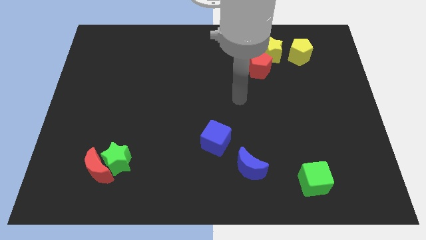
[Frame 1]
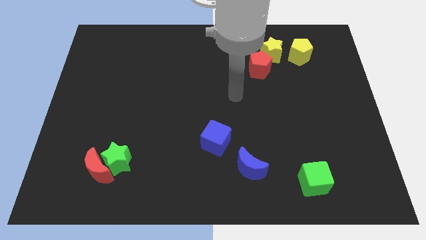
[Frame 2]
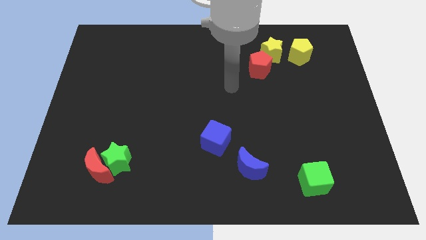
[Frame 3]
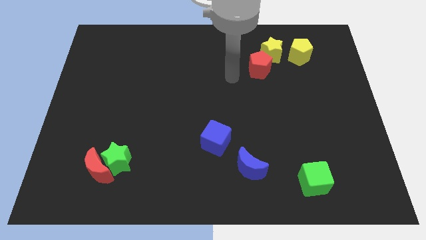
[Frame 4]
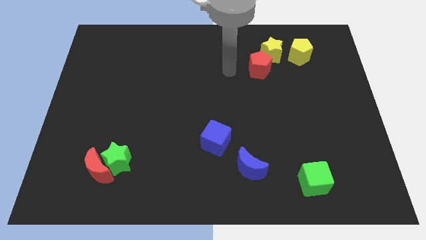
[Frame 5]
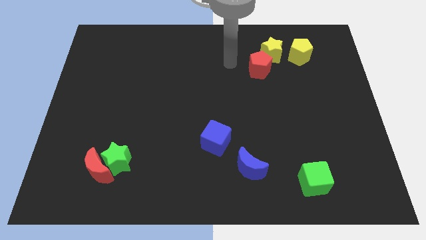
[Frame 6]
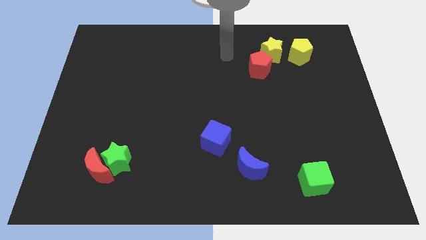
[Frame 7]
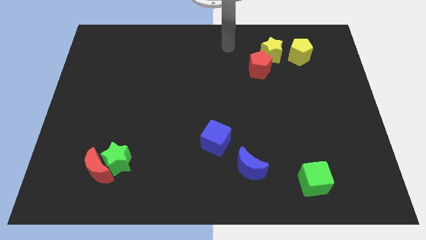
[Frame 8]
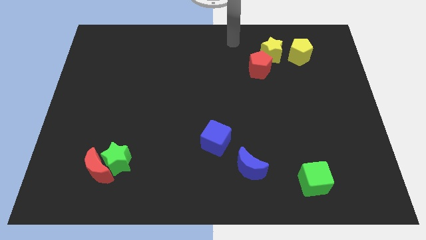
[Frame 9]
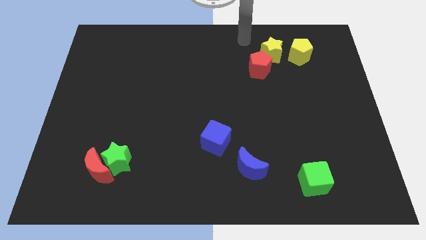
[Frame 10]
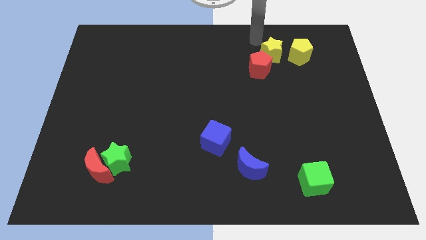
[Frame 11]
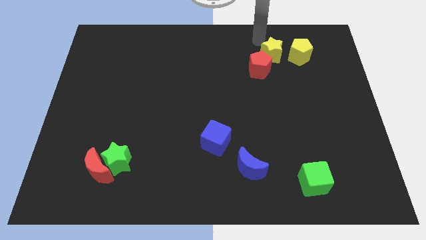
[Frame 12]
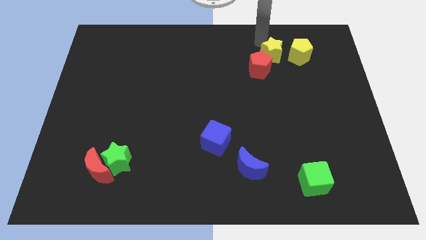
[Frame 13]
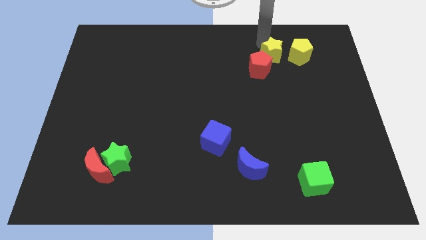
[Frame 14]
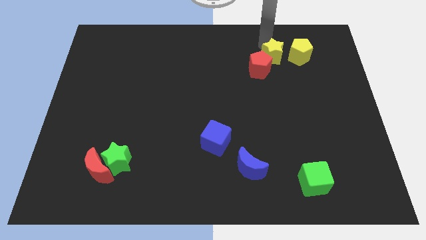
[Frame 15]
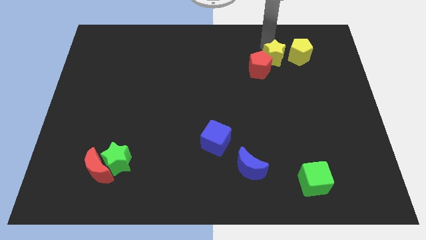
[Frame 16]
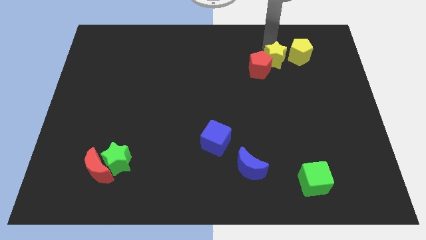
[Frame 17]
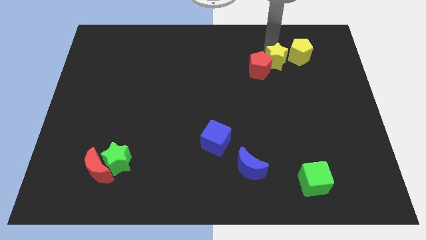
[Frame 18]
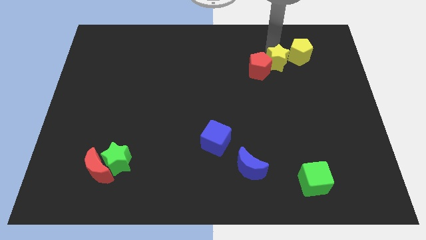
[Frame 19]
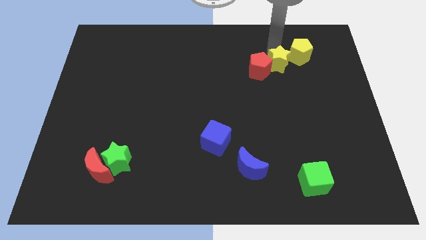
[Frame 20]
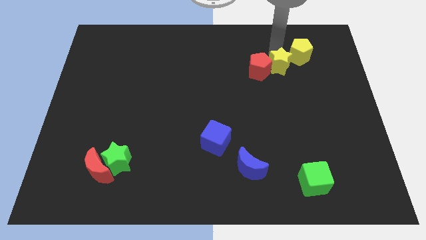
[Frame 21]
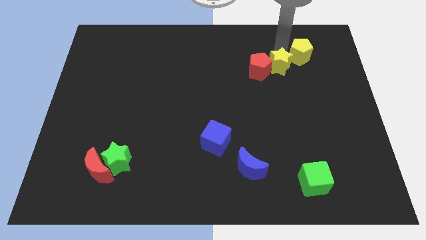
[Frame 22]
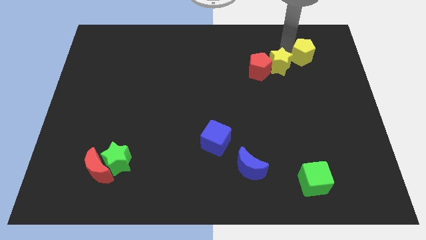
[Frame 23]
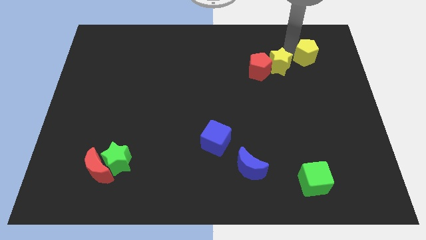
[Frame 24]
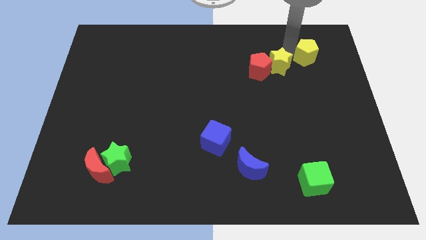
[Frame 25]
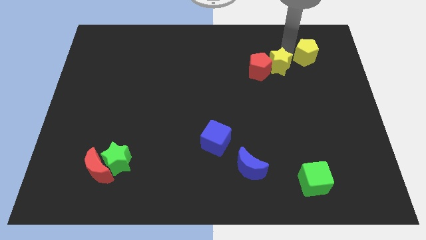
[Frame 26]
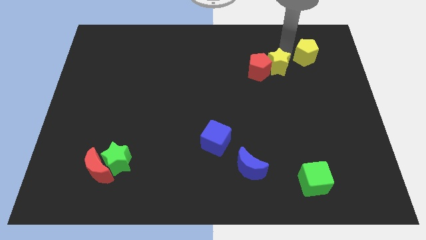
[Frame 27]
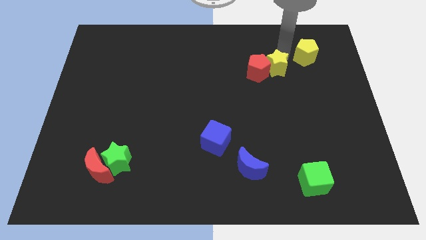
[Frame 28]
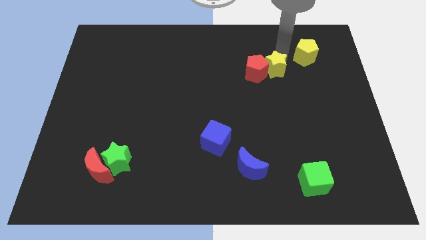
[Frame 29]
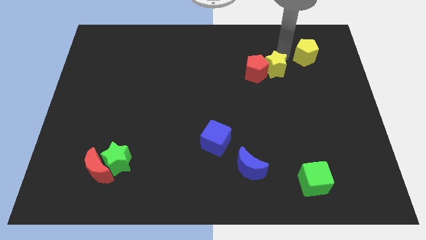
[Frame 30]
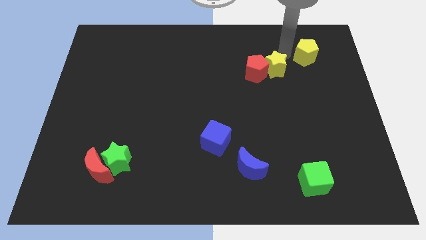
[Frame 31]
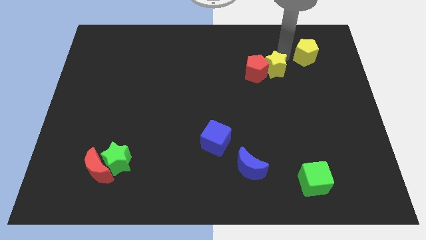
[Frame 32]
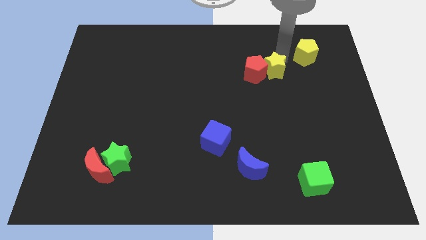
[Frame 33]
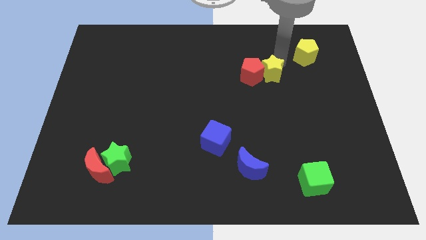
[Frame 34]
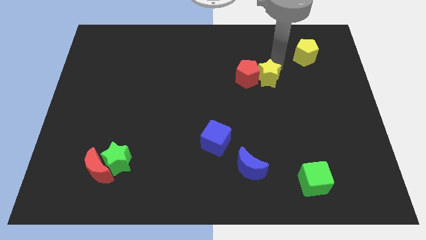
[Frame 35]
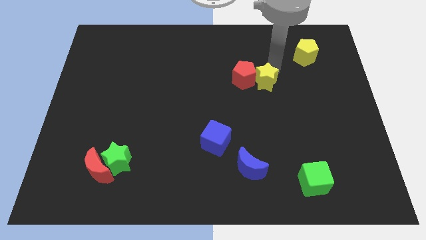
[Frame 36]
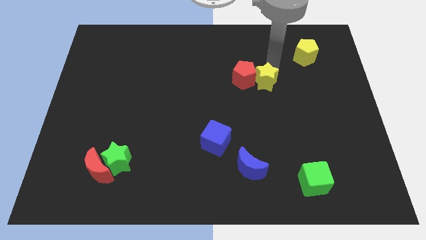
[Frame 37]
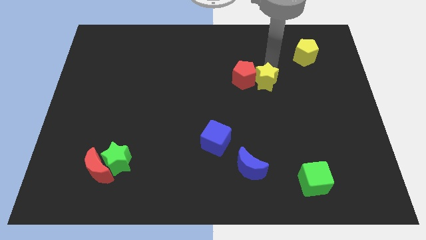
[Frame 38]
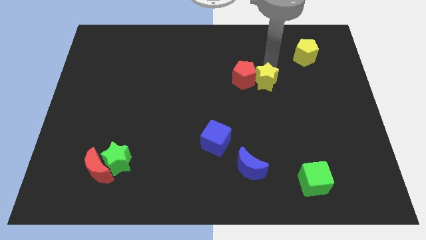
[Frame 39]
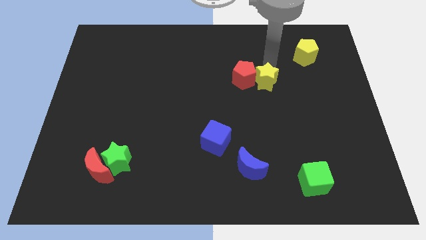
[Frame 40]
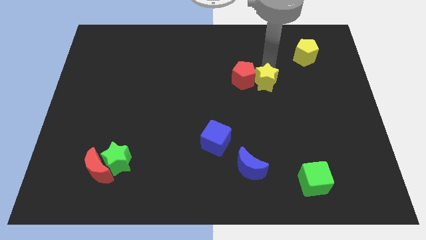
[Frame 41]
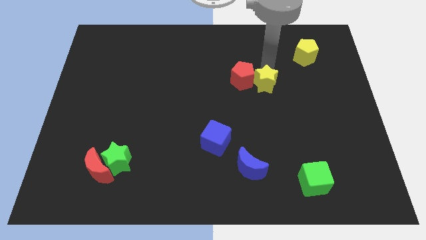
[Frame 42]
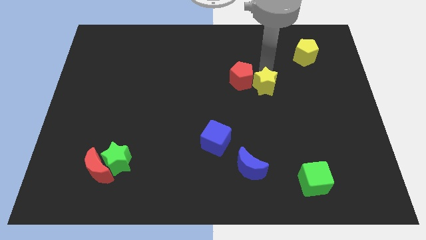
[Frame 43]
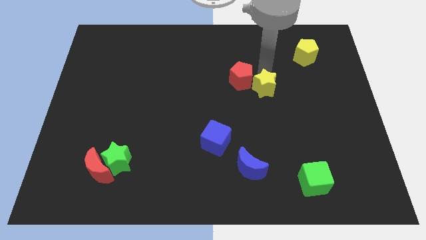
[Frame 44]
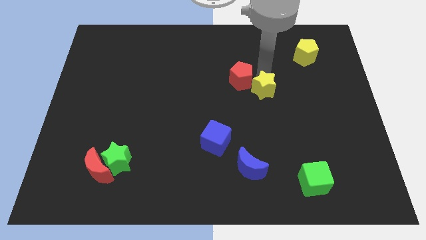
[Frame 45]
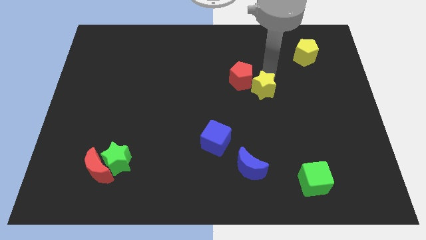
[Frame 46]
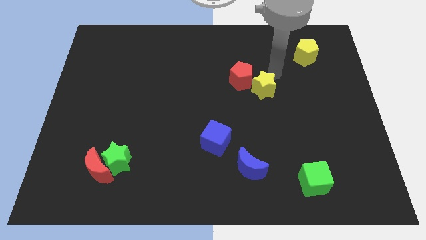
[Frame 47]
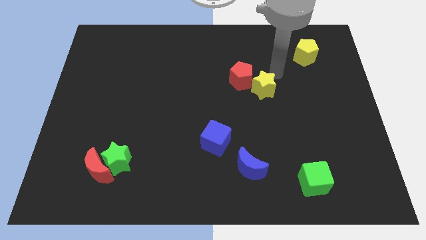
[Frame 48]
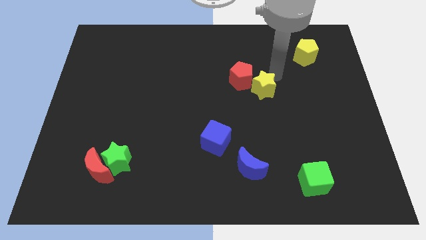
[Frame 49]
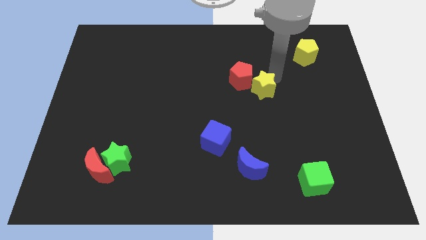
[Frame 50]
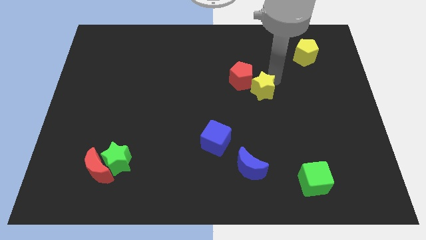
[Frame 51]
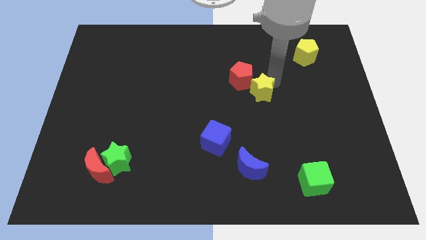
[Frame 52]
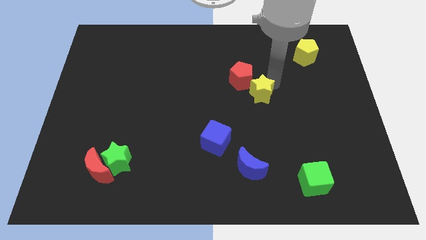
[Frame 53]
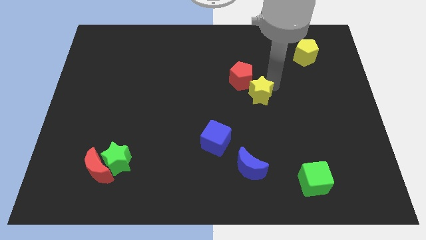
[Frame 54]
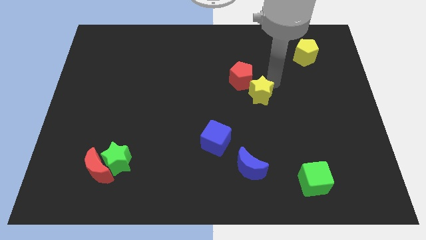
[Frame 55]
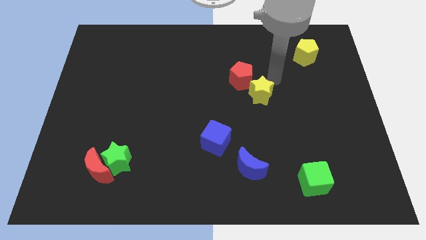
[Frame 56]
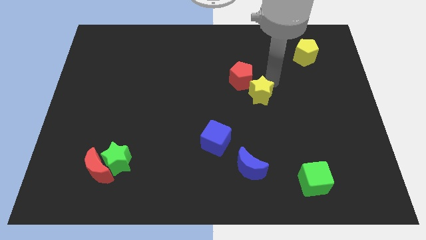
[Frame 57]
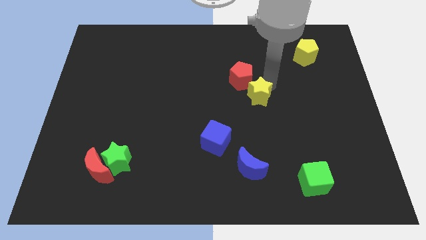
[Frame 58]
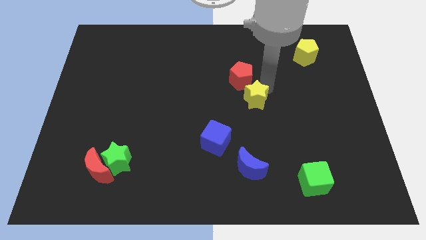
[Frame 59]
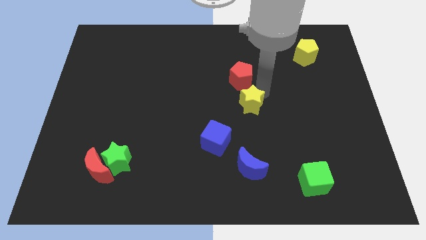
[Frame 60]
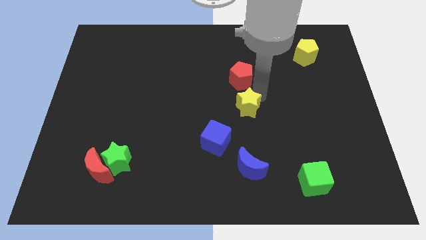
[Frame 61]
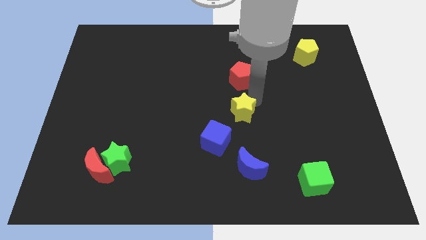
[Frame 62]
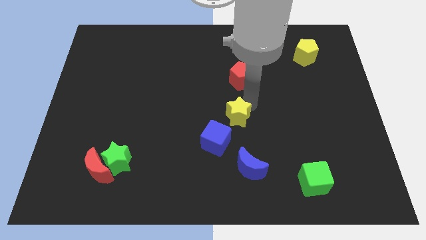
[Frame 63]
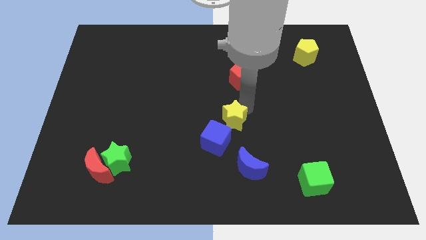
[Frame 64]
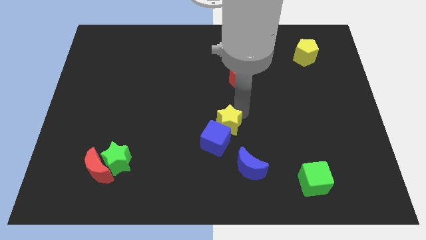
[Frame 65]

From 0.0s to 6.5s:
put the yellow star next to the blue cube

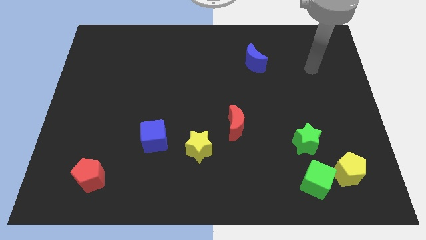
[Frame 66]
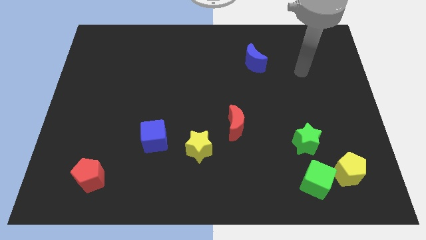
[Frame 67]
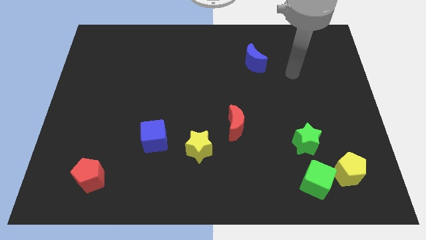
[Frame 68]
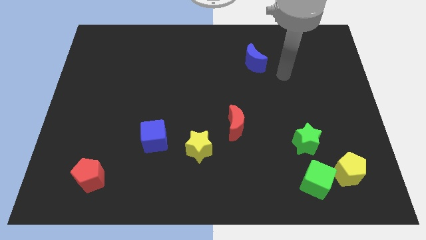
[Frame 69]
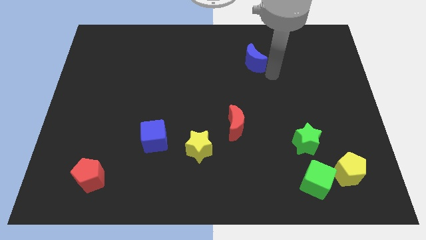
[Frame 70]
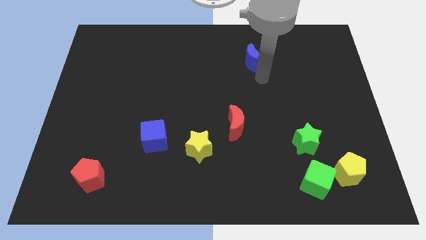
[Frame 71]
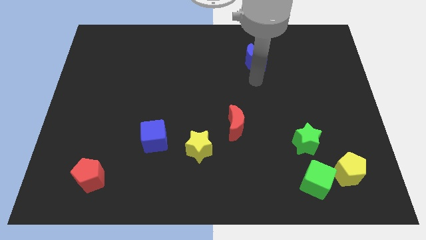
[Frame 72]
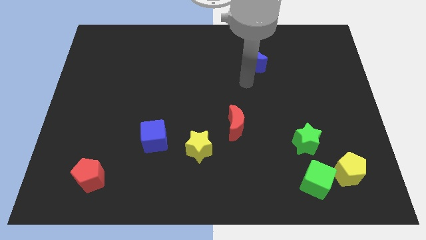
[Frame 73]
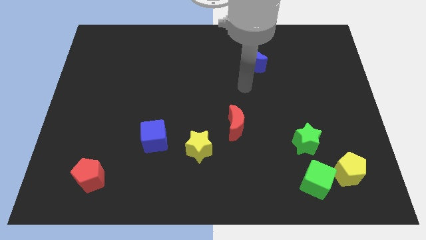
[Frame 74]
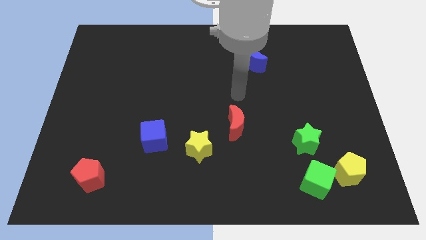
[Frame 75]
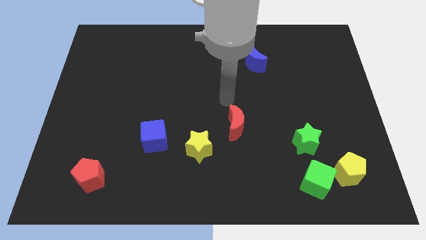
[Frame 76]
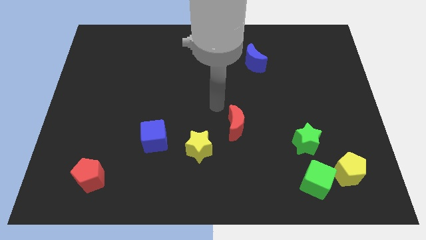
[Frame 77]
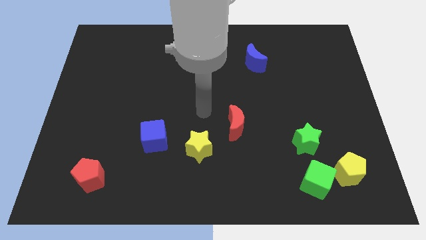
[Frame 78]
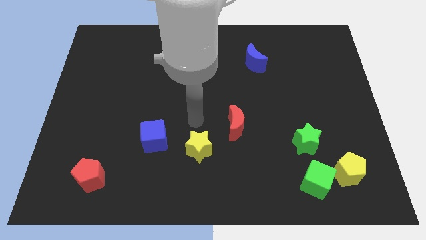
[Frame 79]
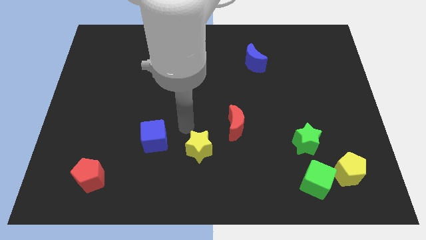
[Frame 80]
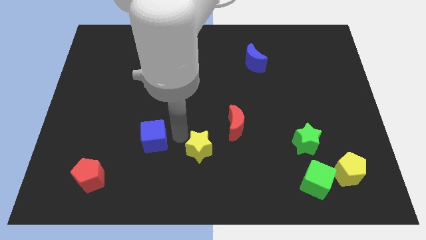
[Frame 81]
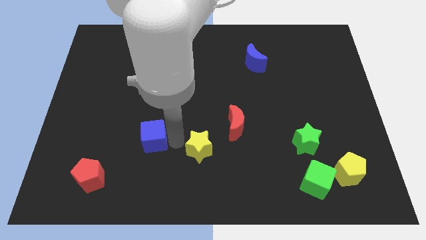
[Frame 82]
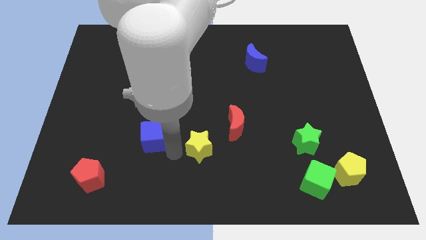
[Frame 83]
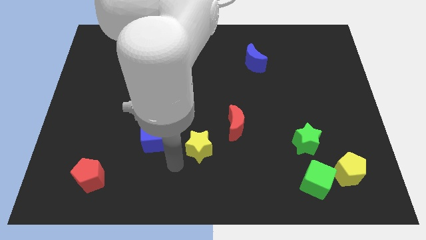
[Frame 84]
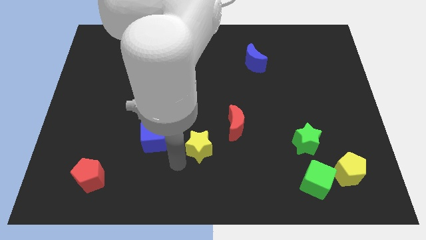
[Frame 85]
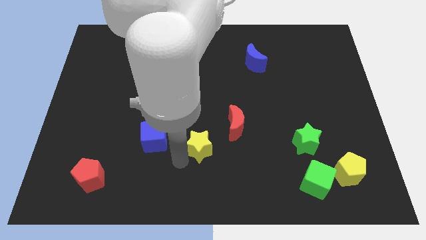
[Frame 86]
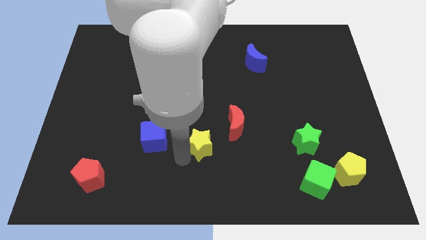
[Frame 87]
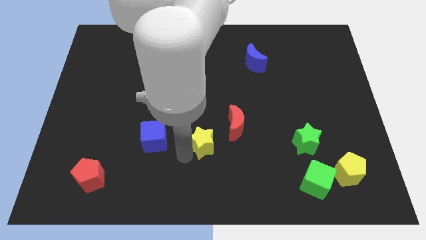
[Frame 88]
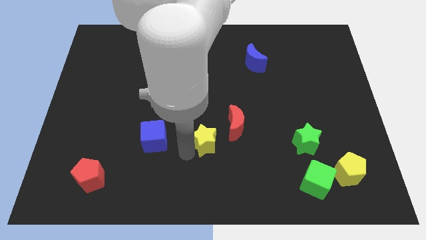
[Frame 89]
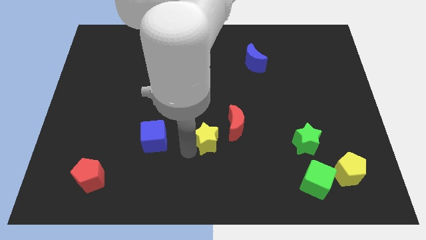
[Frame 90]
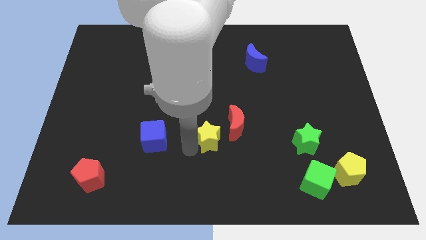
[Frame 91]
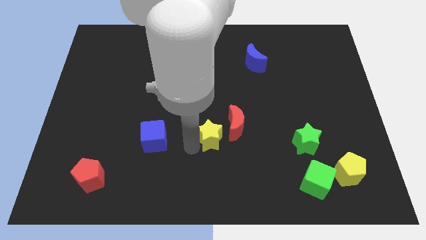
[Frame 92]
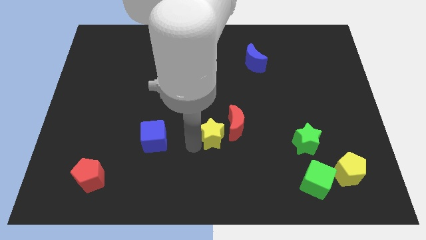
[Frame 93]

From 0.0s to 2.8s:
move the yellow star towards the red moon
